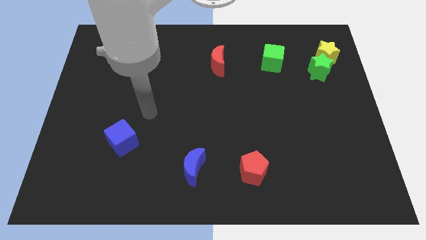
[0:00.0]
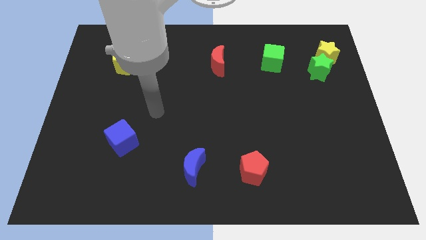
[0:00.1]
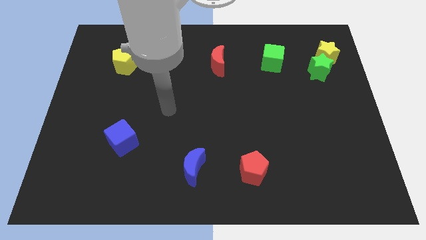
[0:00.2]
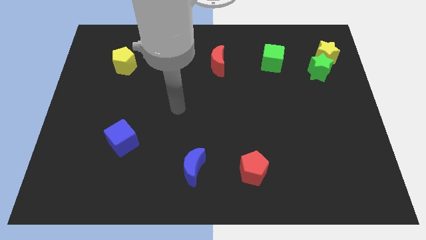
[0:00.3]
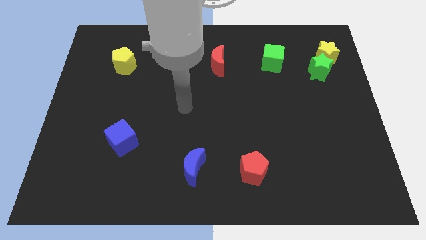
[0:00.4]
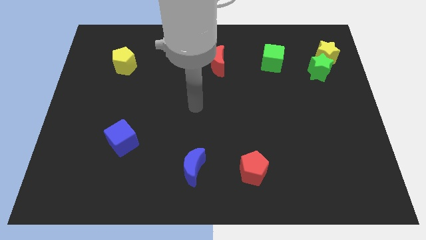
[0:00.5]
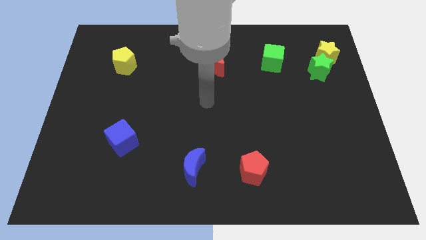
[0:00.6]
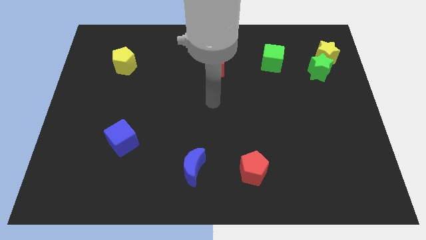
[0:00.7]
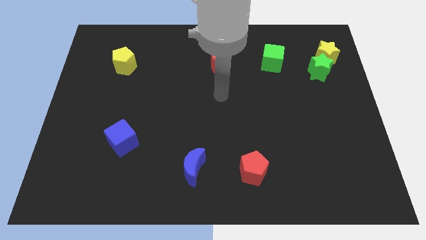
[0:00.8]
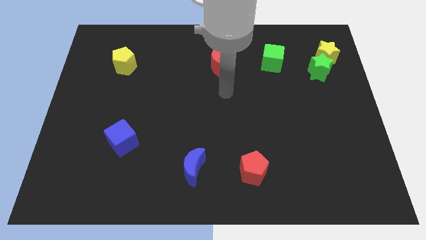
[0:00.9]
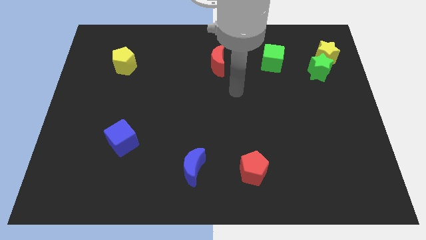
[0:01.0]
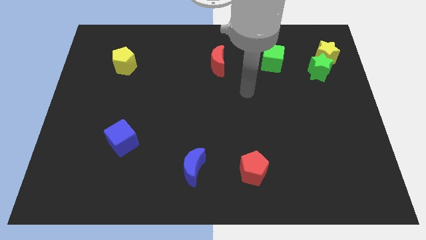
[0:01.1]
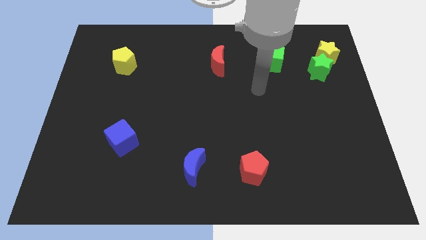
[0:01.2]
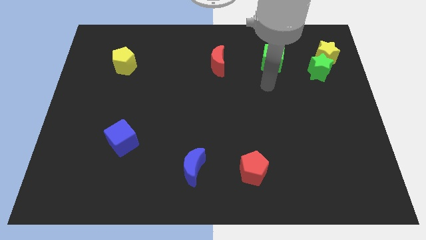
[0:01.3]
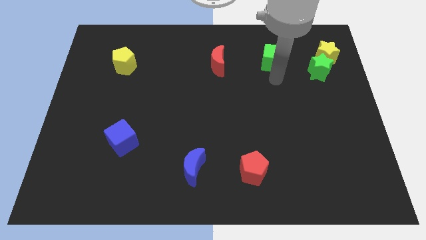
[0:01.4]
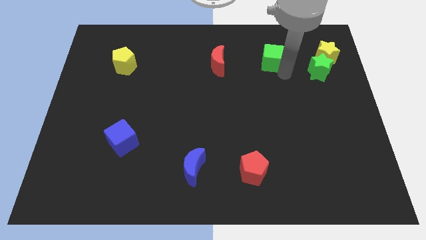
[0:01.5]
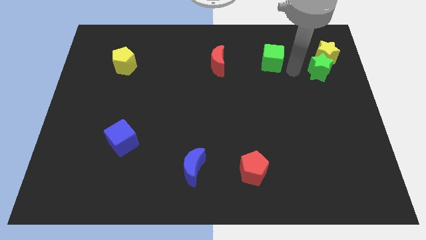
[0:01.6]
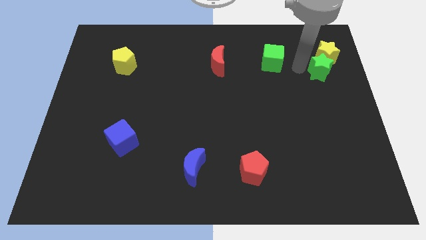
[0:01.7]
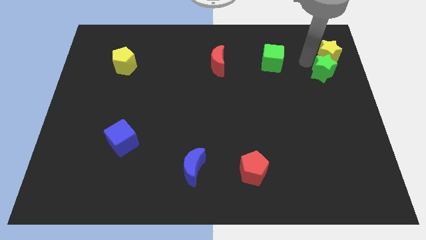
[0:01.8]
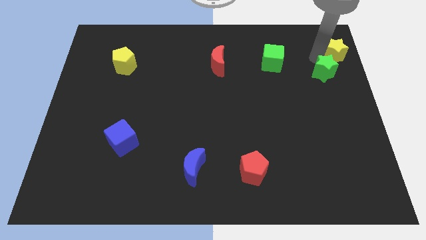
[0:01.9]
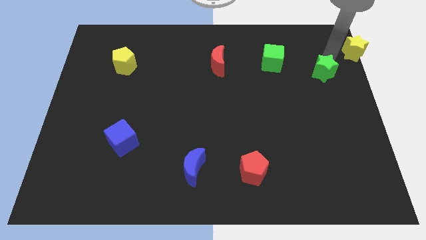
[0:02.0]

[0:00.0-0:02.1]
separate the green star from the yellow star

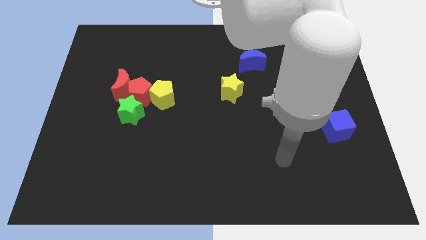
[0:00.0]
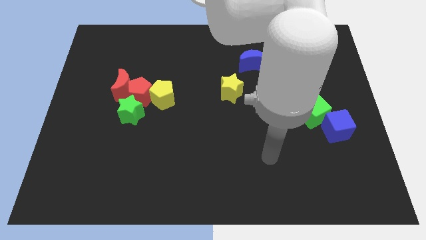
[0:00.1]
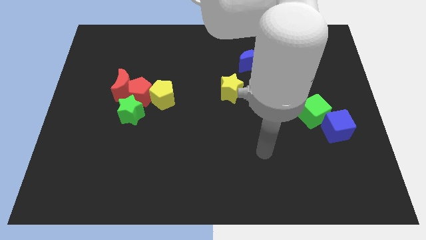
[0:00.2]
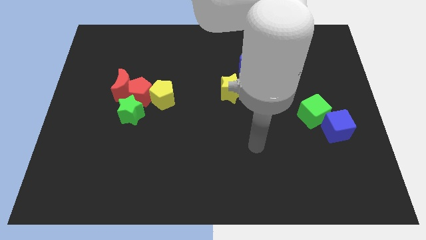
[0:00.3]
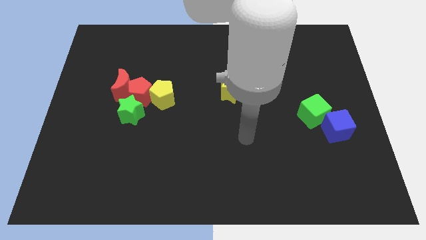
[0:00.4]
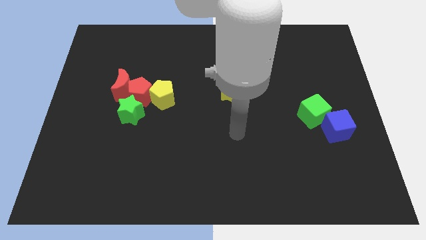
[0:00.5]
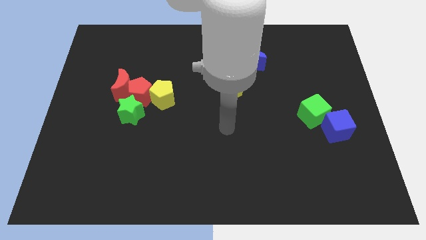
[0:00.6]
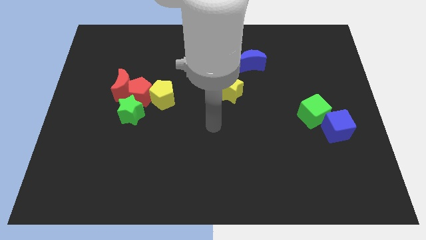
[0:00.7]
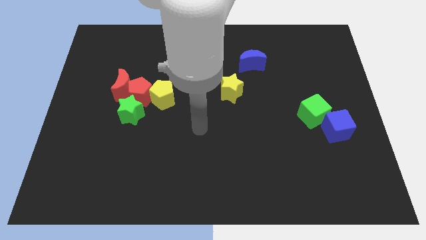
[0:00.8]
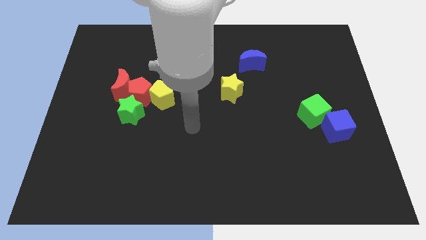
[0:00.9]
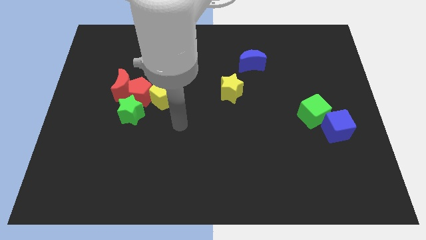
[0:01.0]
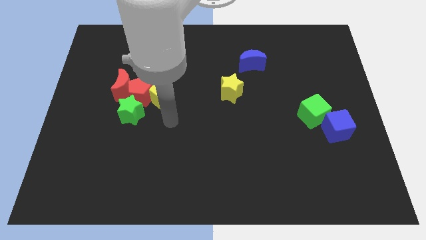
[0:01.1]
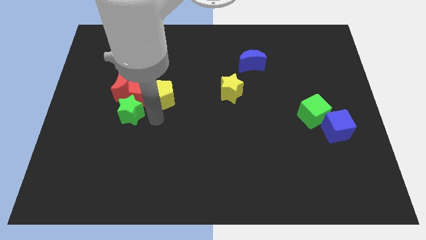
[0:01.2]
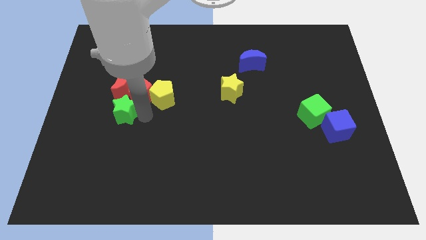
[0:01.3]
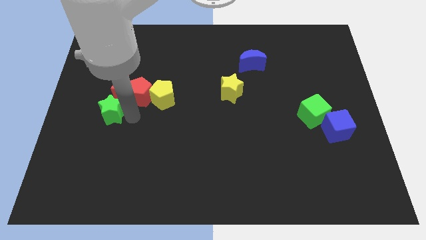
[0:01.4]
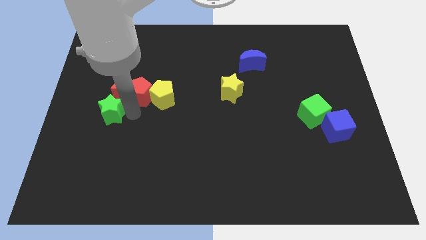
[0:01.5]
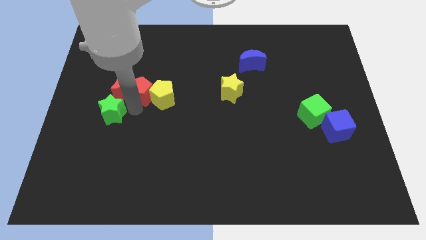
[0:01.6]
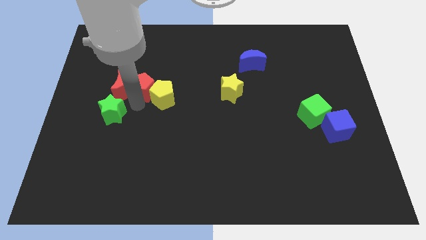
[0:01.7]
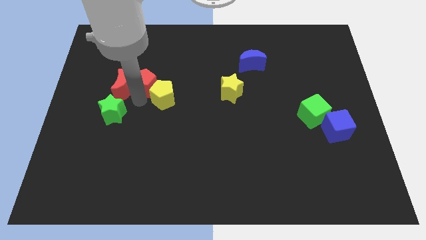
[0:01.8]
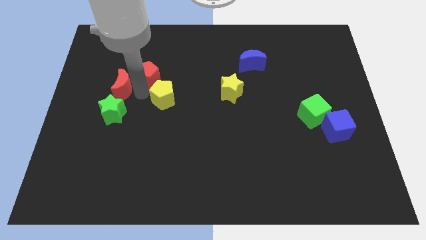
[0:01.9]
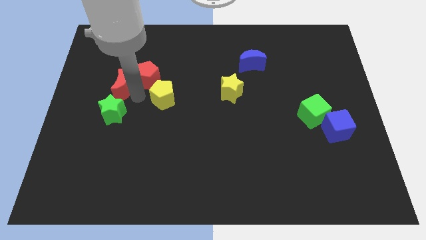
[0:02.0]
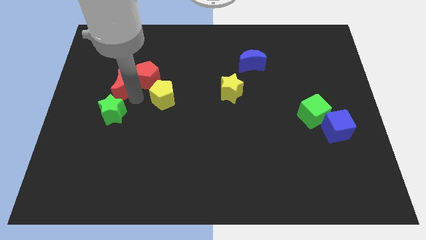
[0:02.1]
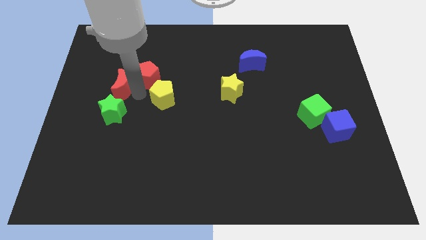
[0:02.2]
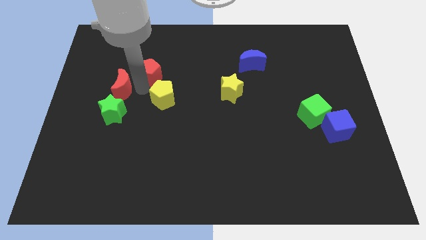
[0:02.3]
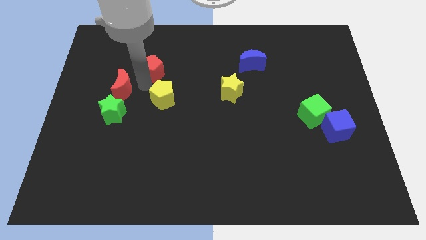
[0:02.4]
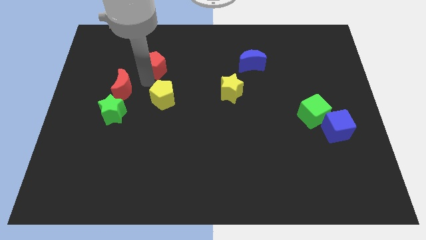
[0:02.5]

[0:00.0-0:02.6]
separate the red pentagon from the clump

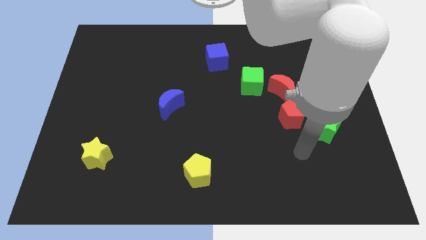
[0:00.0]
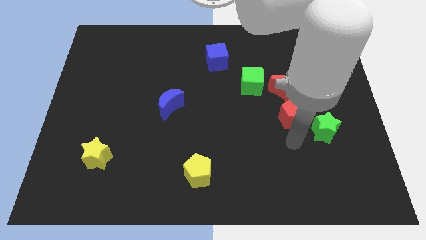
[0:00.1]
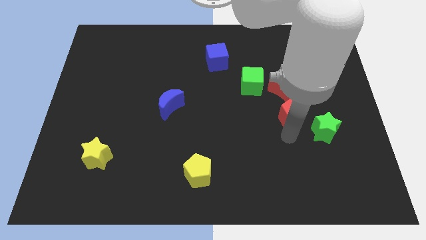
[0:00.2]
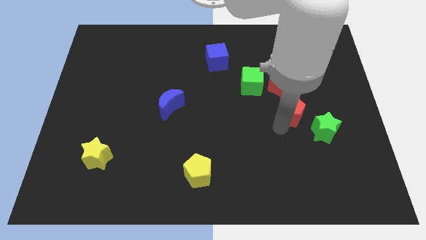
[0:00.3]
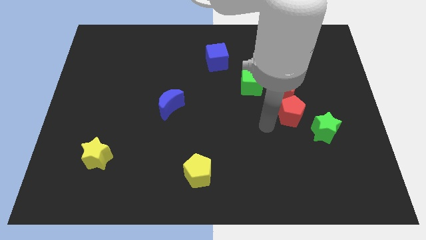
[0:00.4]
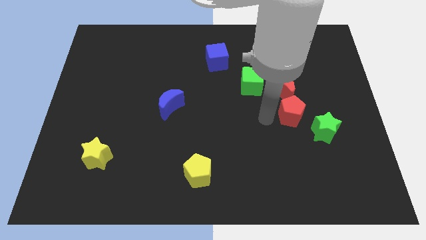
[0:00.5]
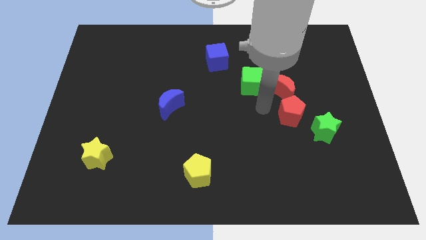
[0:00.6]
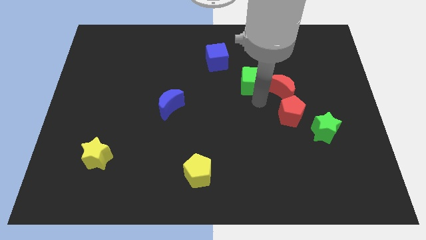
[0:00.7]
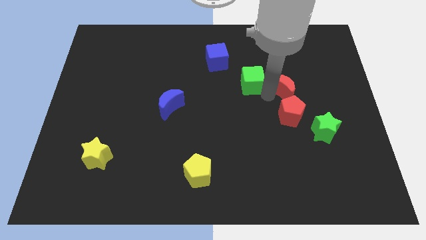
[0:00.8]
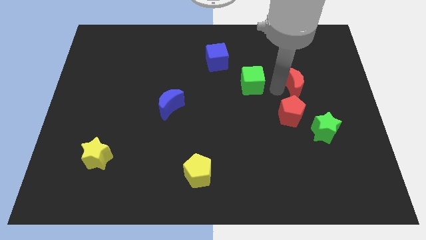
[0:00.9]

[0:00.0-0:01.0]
pull the green cube apart from the red moon

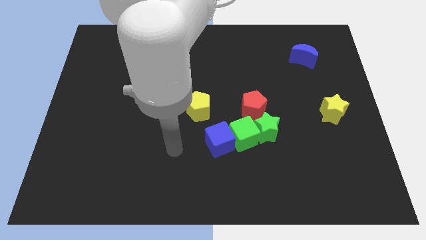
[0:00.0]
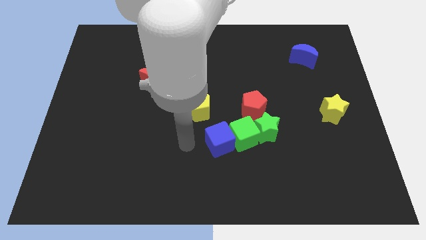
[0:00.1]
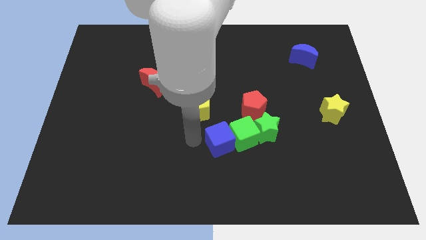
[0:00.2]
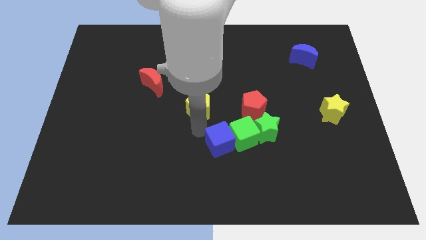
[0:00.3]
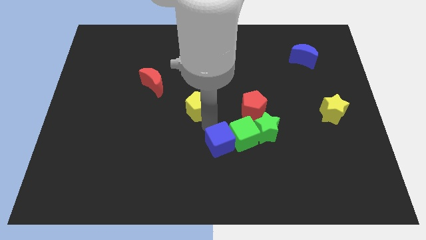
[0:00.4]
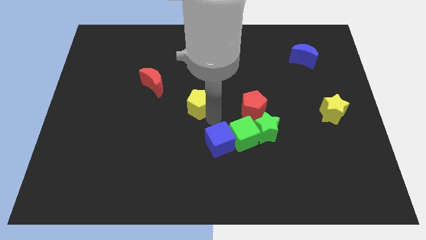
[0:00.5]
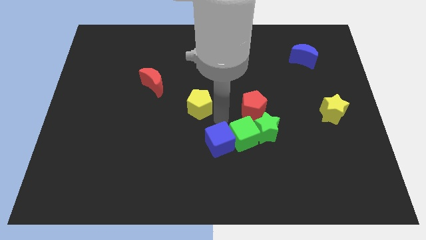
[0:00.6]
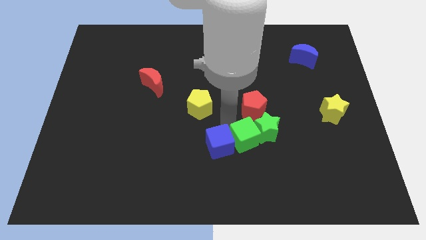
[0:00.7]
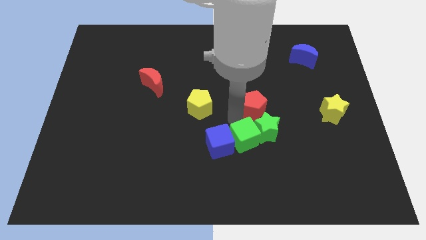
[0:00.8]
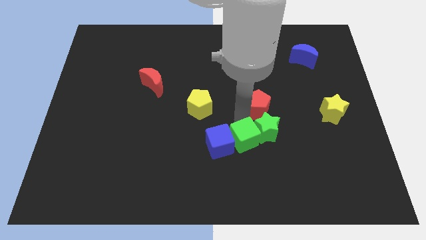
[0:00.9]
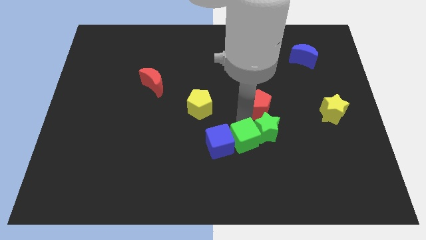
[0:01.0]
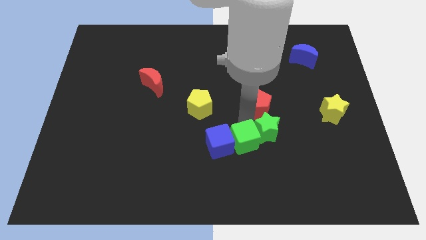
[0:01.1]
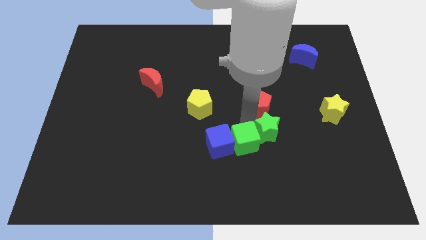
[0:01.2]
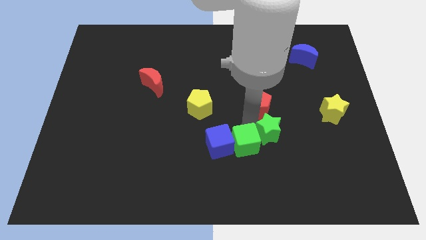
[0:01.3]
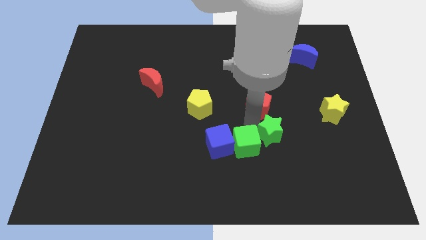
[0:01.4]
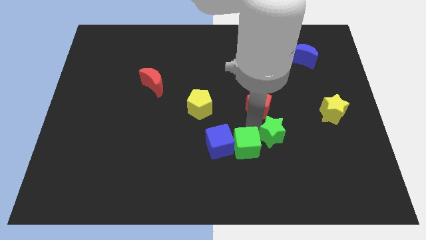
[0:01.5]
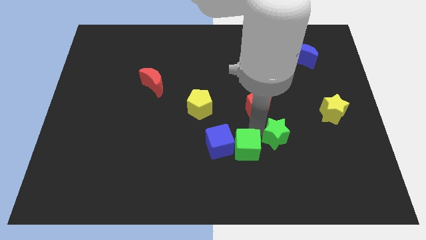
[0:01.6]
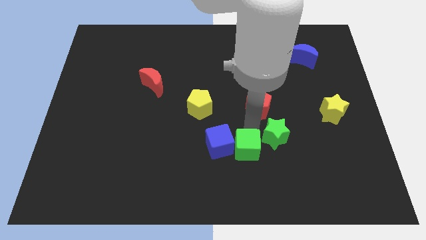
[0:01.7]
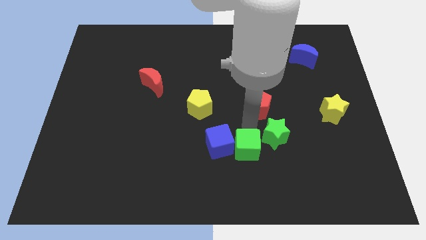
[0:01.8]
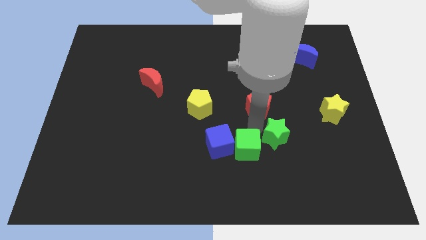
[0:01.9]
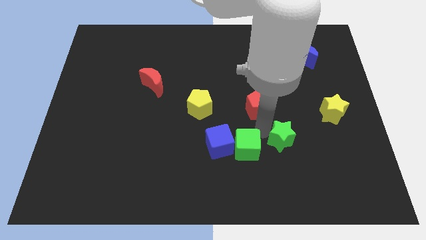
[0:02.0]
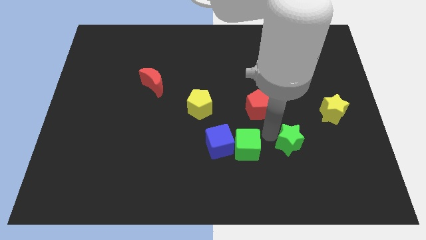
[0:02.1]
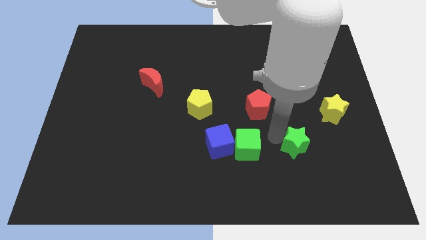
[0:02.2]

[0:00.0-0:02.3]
separate the green star from the green cube and red pentagon

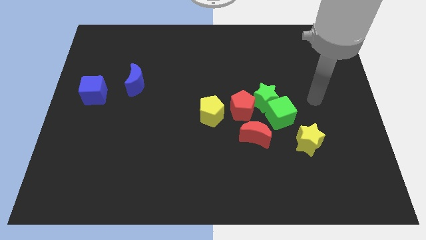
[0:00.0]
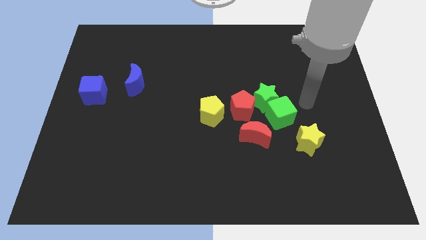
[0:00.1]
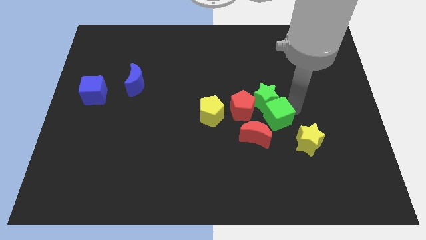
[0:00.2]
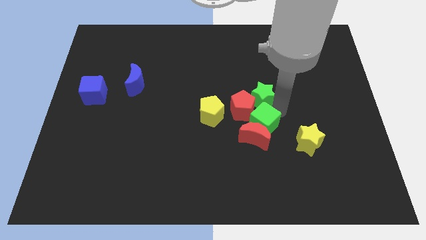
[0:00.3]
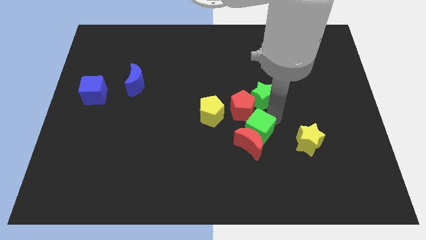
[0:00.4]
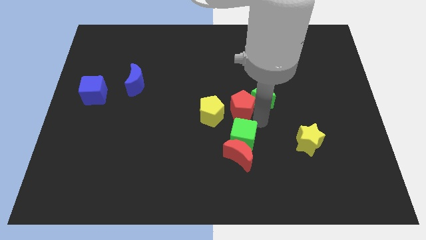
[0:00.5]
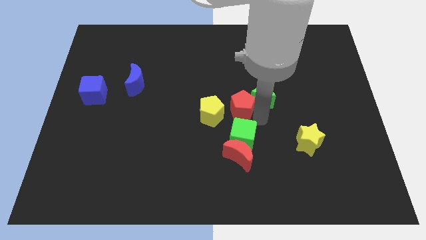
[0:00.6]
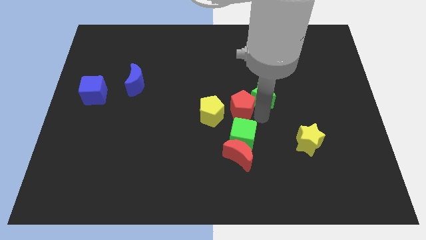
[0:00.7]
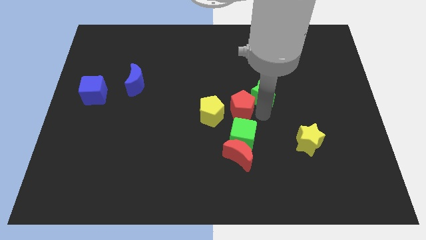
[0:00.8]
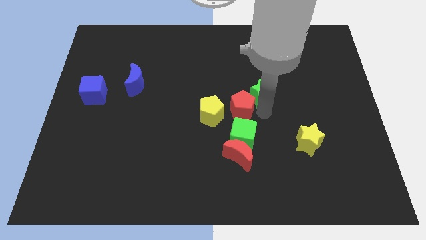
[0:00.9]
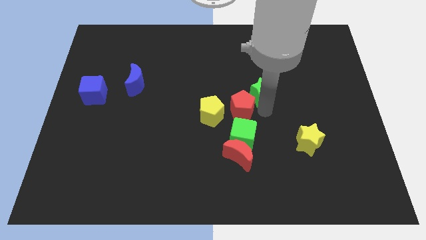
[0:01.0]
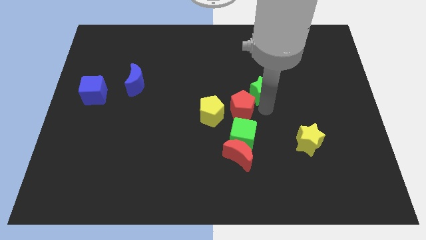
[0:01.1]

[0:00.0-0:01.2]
pull the green star apart from the green cube and red pentagon
